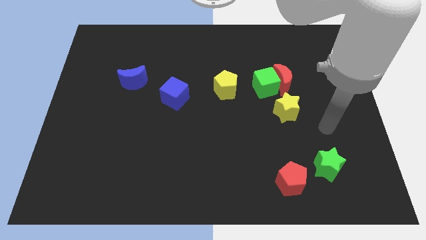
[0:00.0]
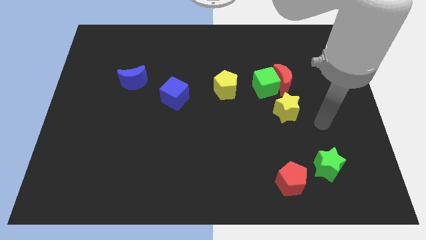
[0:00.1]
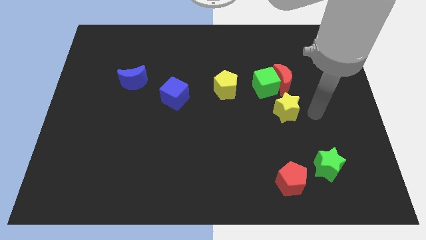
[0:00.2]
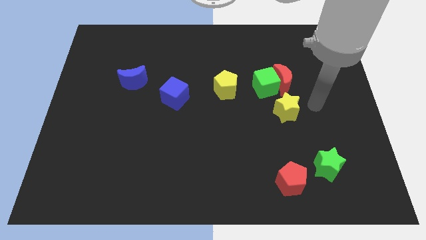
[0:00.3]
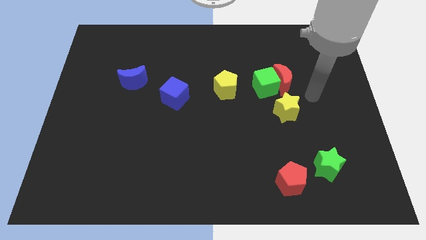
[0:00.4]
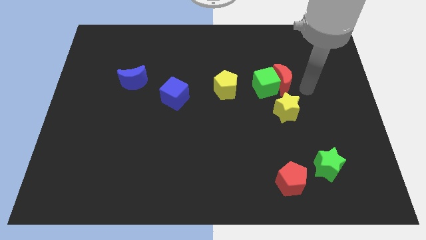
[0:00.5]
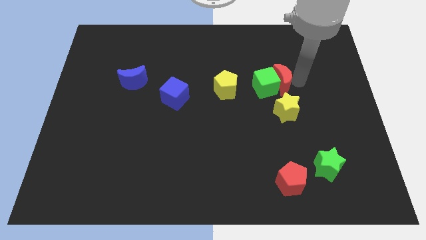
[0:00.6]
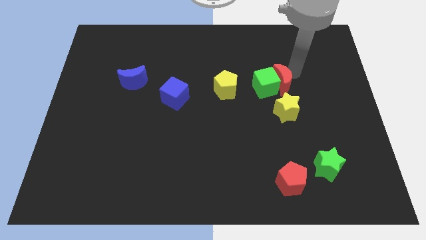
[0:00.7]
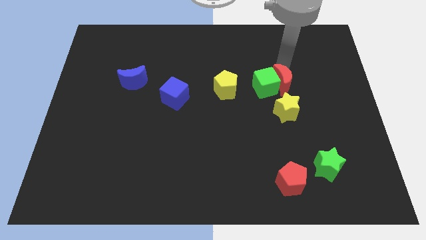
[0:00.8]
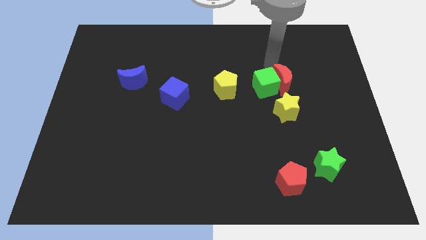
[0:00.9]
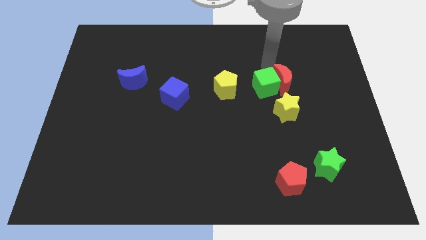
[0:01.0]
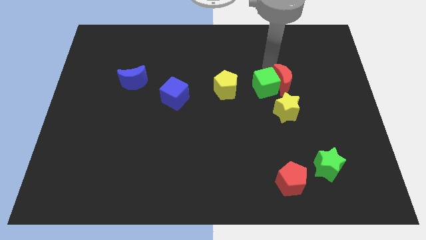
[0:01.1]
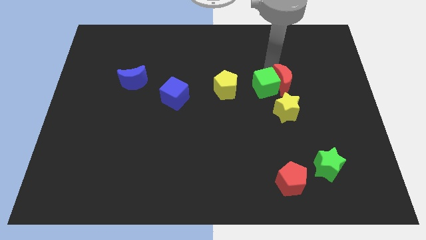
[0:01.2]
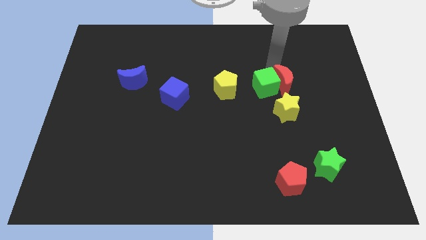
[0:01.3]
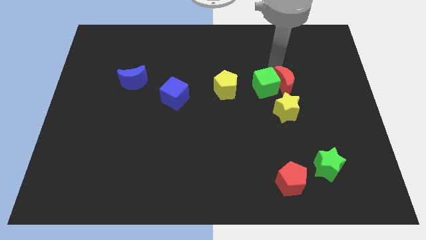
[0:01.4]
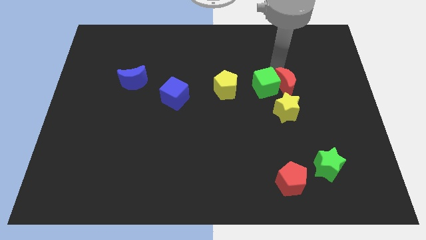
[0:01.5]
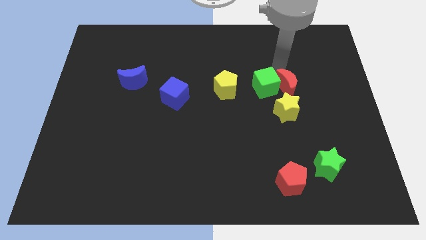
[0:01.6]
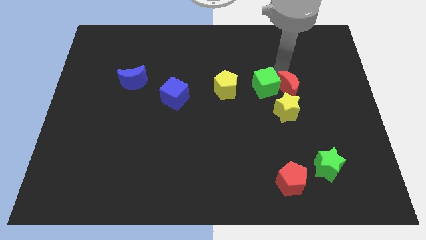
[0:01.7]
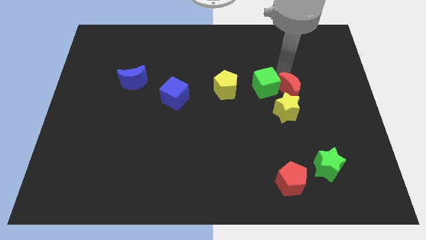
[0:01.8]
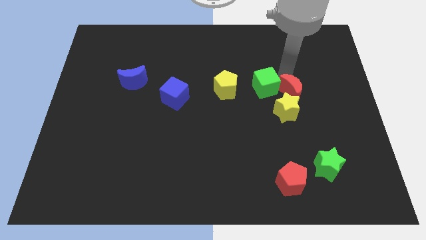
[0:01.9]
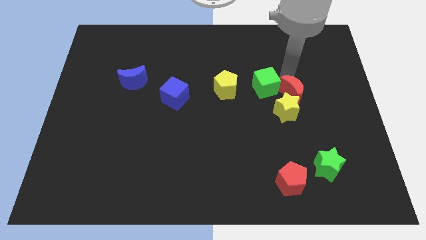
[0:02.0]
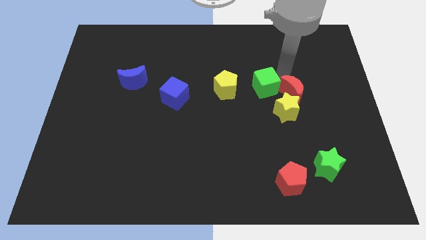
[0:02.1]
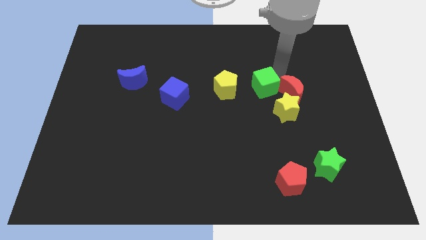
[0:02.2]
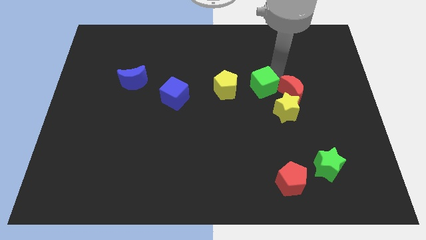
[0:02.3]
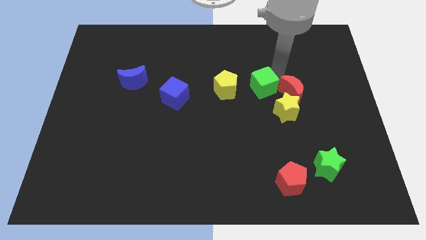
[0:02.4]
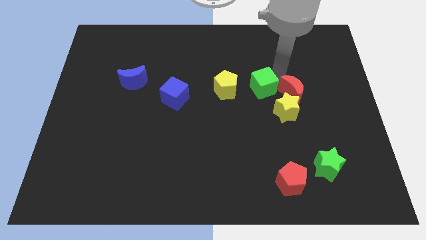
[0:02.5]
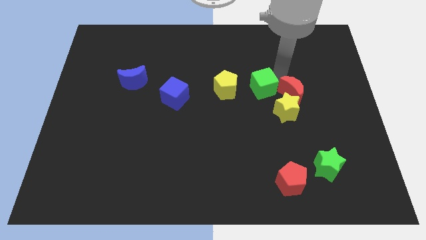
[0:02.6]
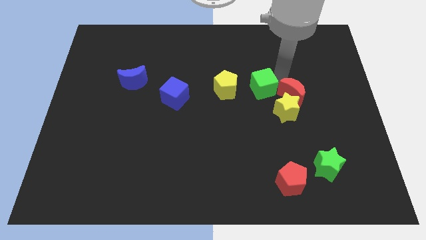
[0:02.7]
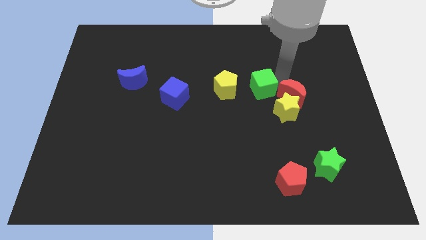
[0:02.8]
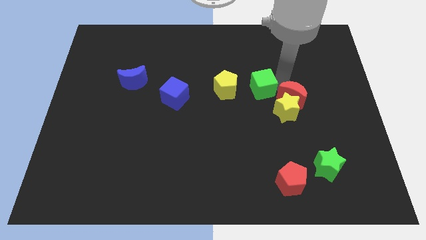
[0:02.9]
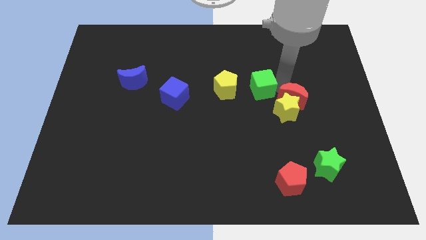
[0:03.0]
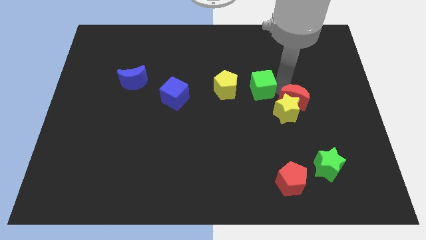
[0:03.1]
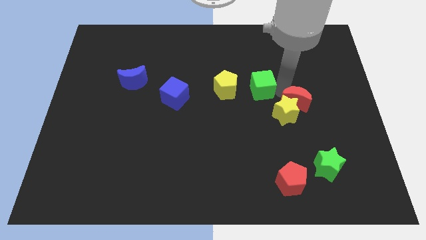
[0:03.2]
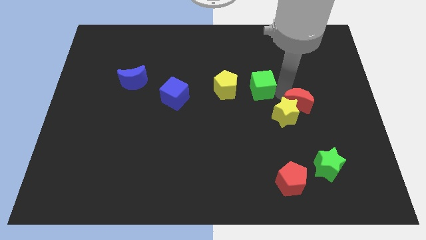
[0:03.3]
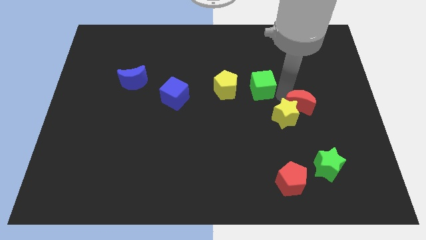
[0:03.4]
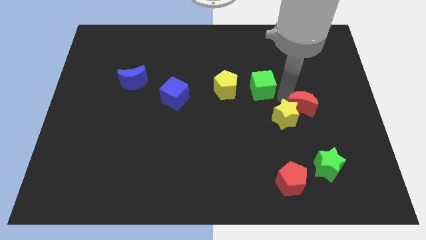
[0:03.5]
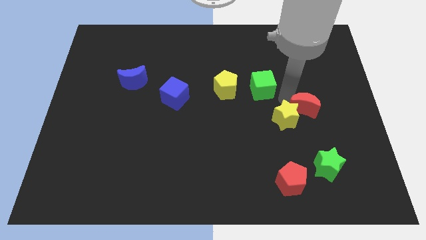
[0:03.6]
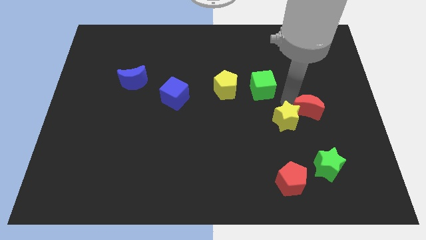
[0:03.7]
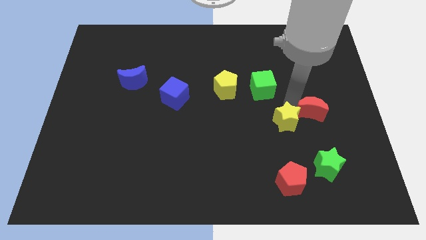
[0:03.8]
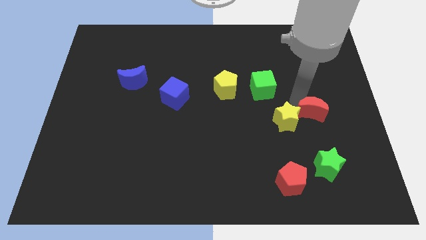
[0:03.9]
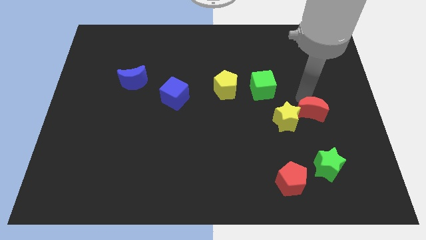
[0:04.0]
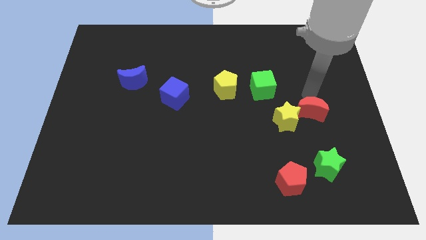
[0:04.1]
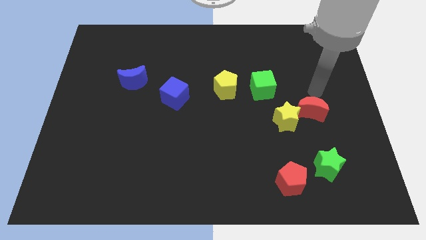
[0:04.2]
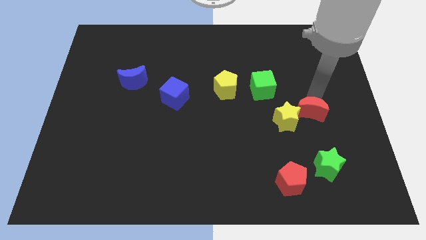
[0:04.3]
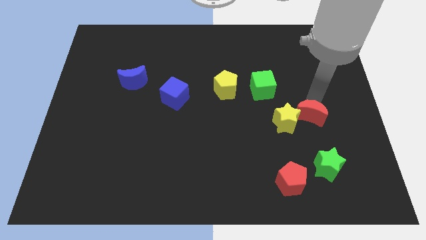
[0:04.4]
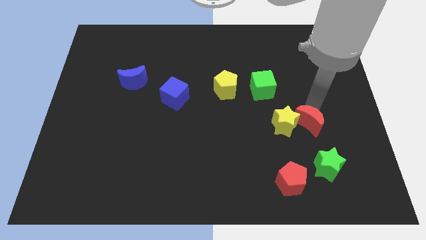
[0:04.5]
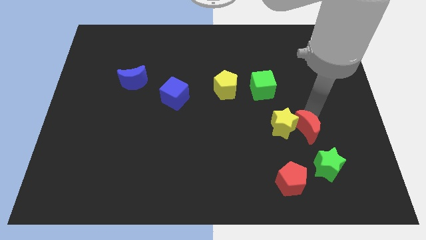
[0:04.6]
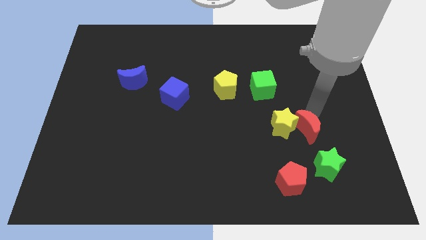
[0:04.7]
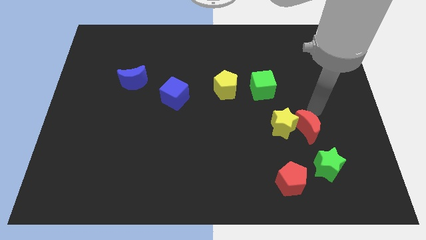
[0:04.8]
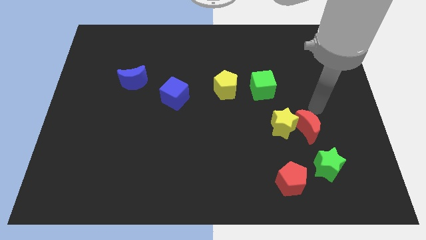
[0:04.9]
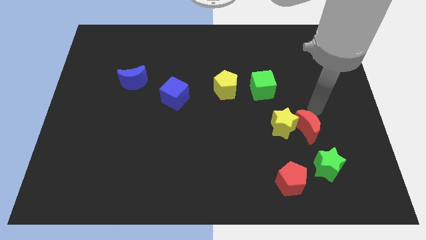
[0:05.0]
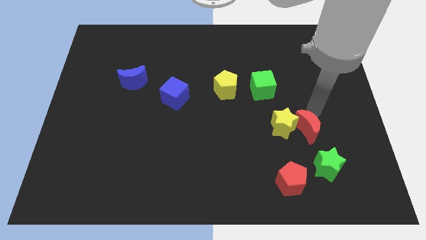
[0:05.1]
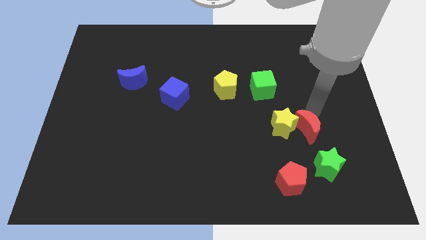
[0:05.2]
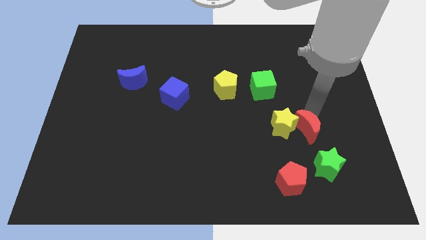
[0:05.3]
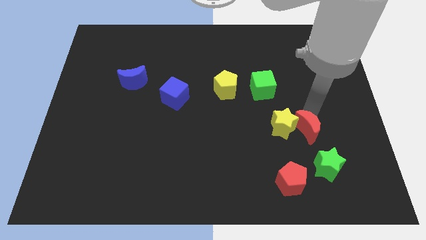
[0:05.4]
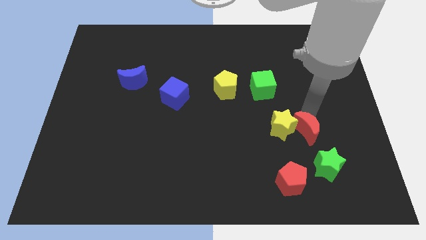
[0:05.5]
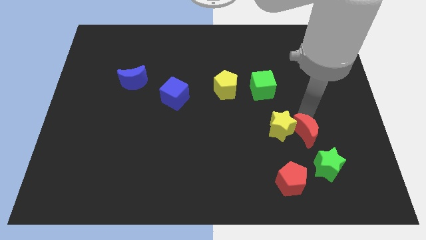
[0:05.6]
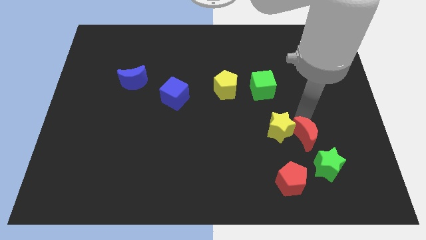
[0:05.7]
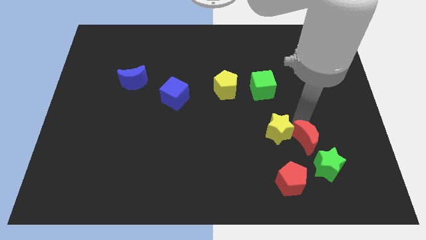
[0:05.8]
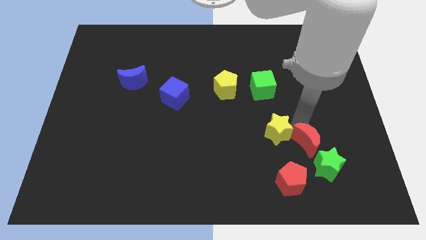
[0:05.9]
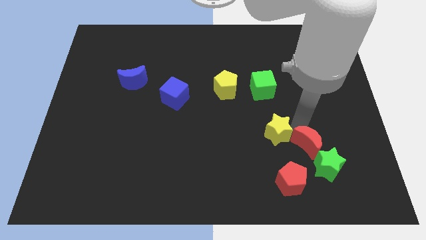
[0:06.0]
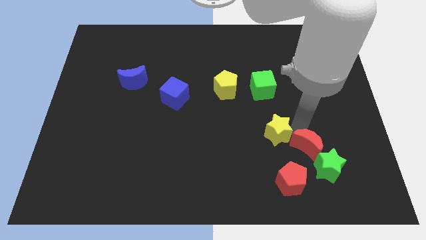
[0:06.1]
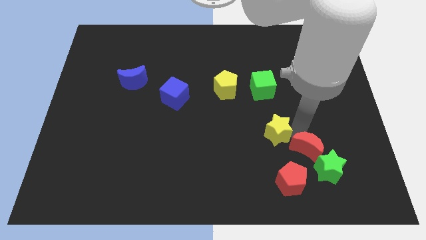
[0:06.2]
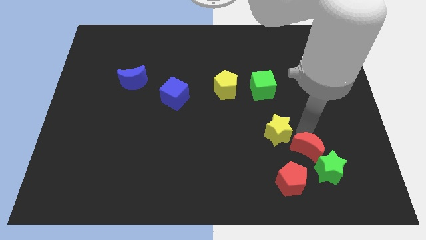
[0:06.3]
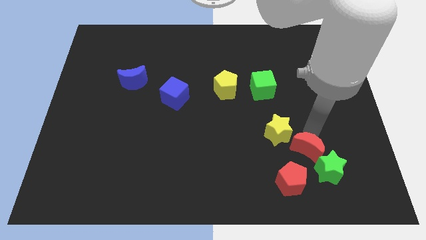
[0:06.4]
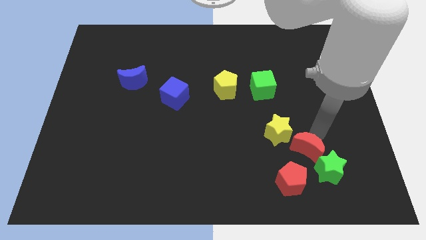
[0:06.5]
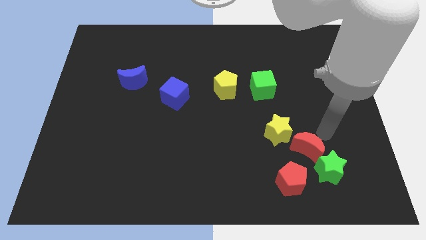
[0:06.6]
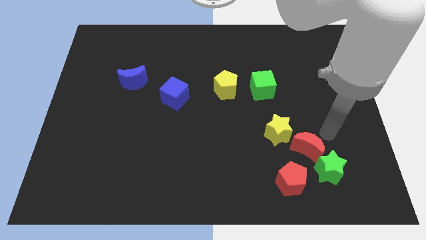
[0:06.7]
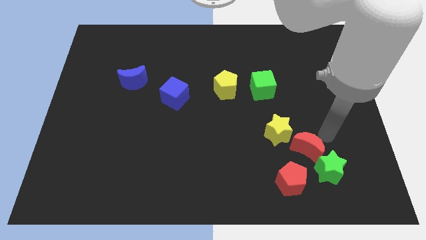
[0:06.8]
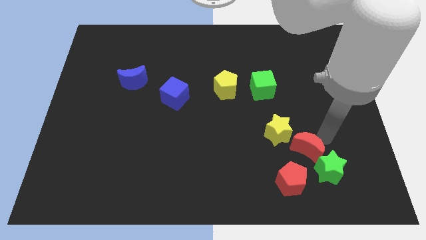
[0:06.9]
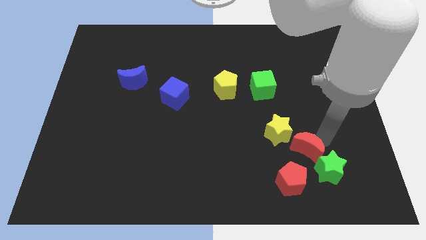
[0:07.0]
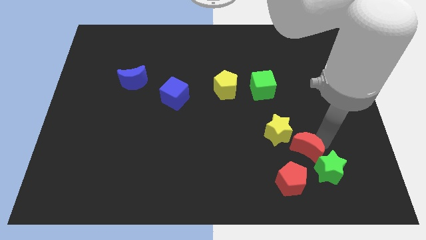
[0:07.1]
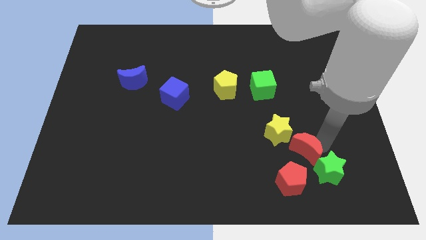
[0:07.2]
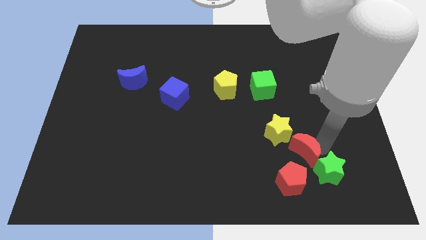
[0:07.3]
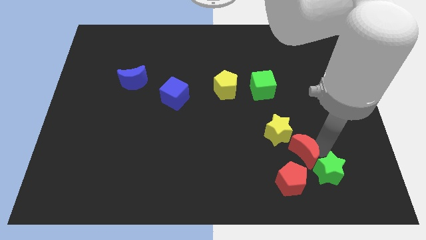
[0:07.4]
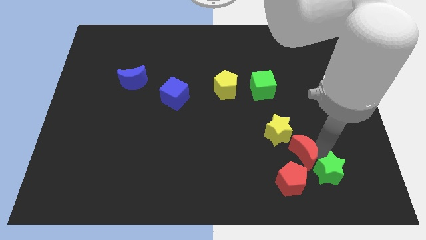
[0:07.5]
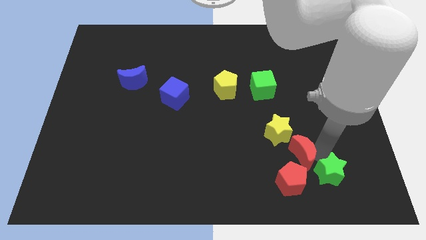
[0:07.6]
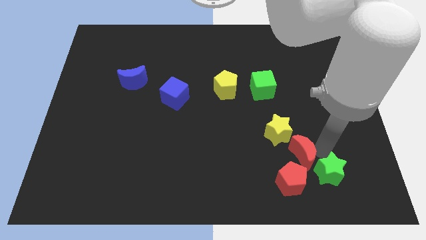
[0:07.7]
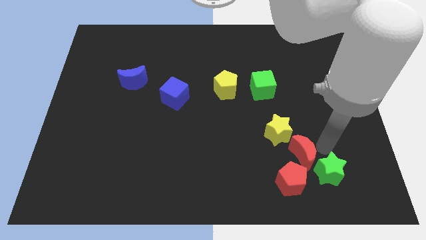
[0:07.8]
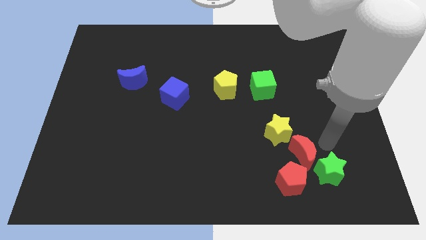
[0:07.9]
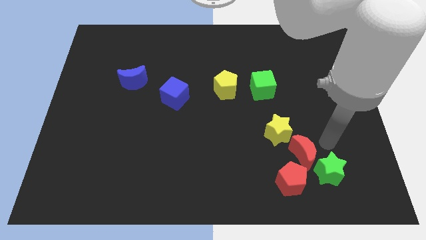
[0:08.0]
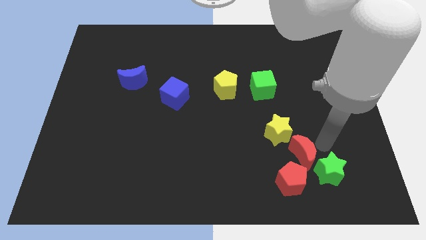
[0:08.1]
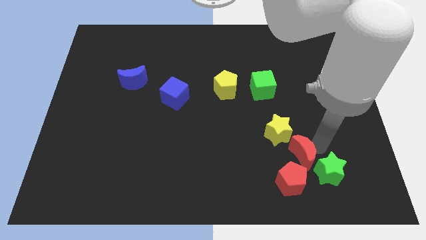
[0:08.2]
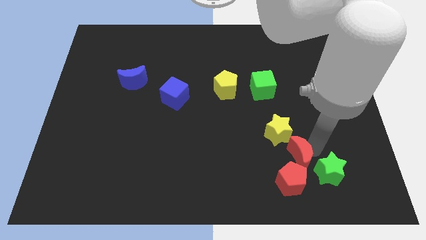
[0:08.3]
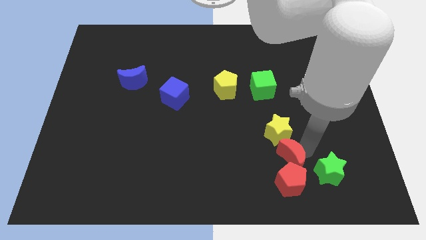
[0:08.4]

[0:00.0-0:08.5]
slide the red moon next to the red pentagon
